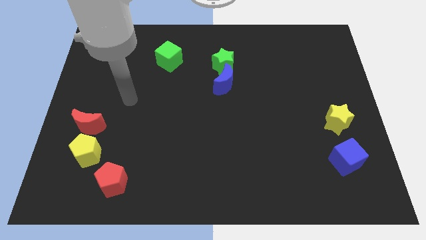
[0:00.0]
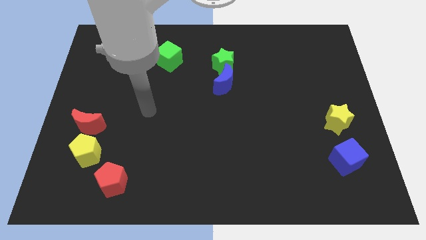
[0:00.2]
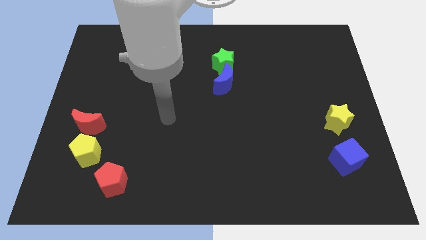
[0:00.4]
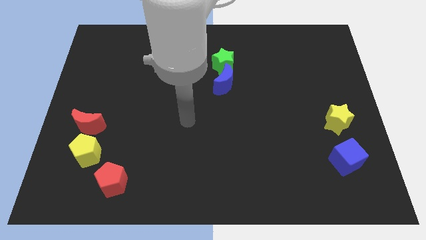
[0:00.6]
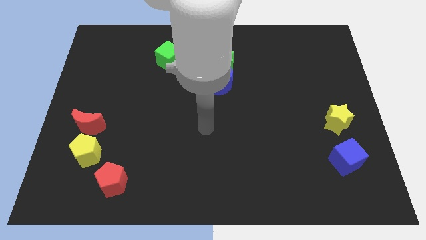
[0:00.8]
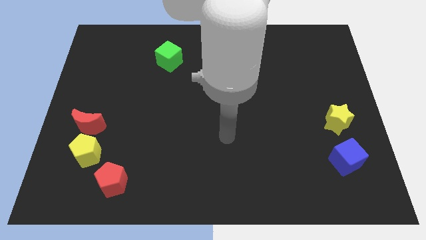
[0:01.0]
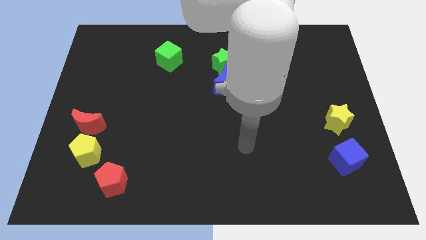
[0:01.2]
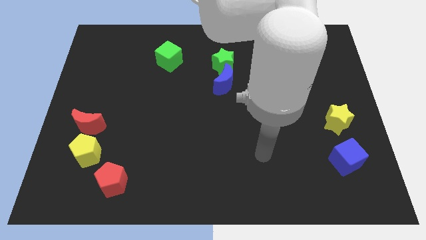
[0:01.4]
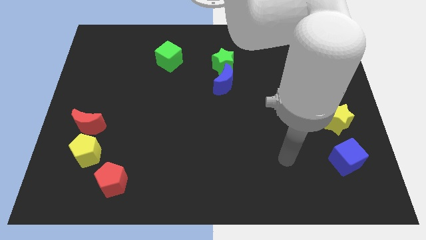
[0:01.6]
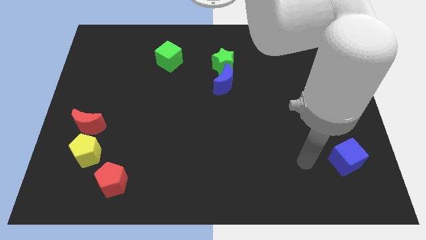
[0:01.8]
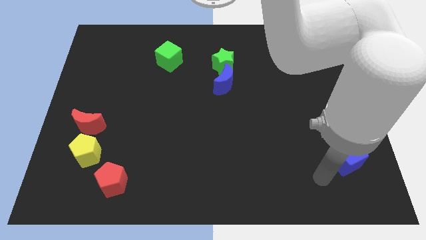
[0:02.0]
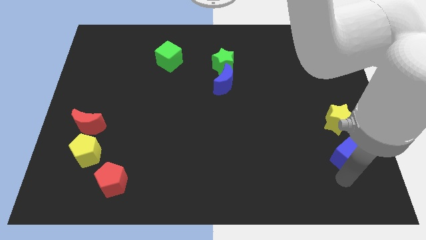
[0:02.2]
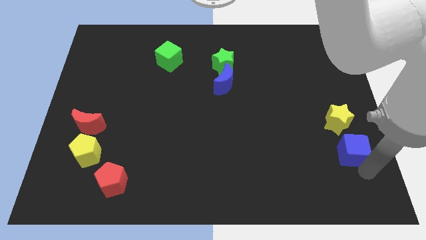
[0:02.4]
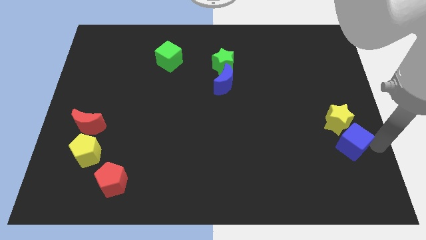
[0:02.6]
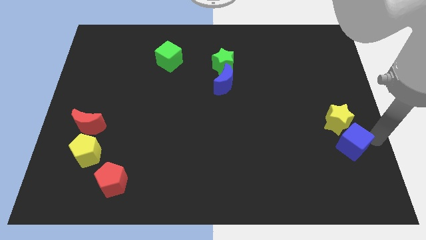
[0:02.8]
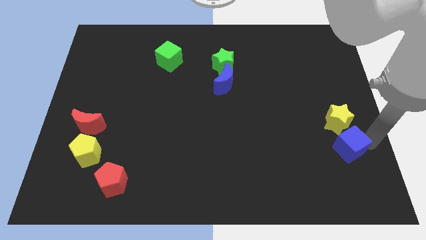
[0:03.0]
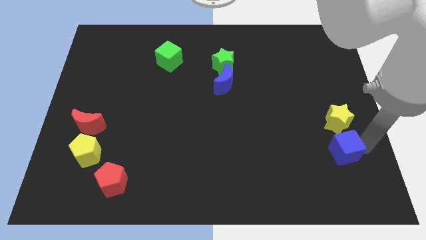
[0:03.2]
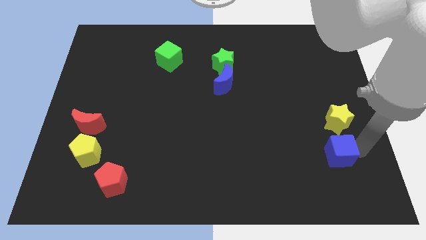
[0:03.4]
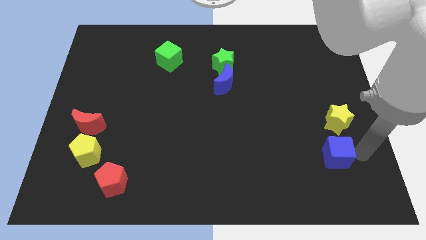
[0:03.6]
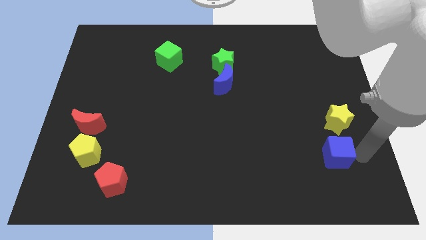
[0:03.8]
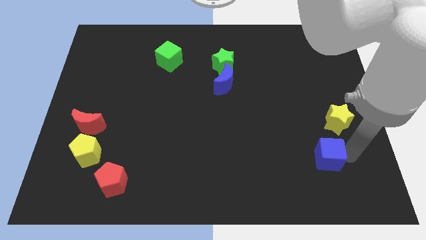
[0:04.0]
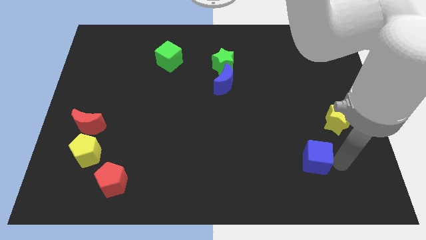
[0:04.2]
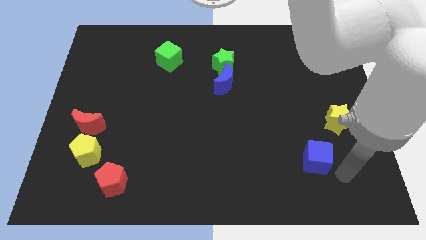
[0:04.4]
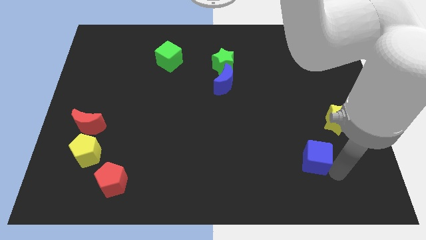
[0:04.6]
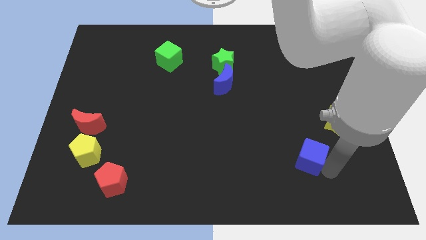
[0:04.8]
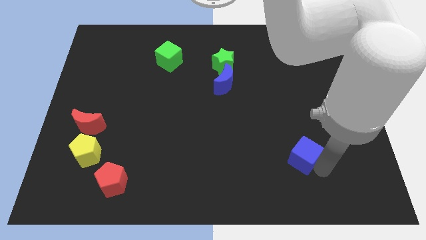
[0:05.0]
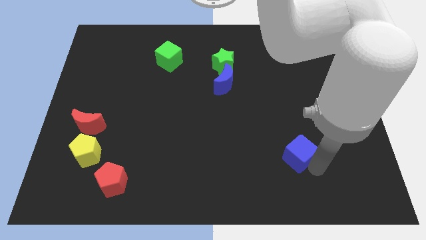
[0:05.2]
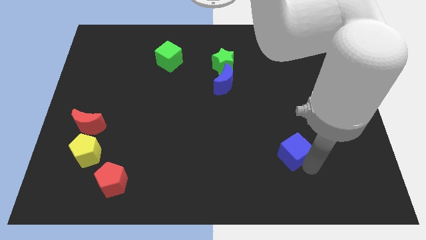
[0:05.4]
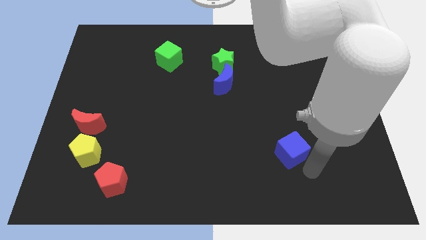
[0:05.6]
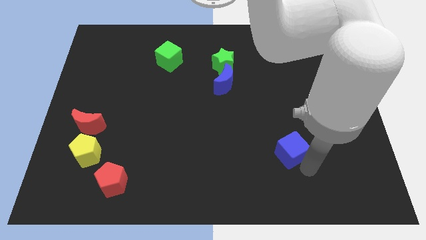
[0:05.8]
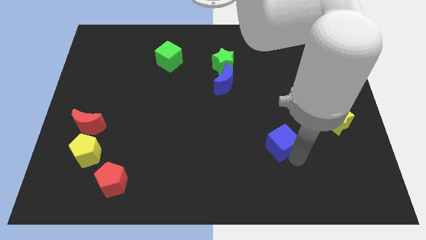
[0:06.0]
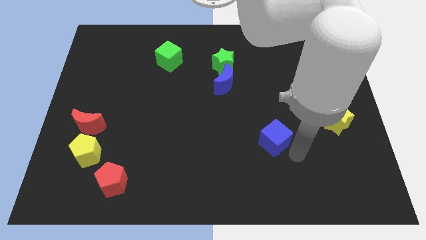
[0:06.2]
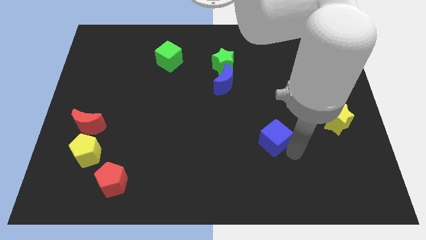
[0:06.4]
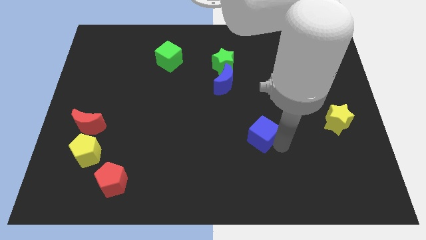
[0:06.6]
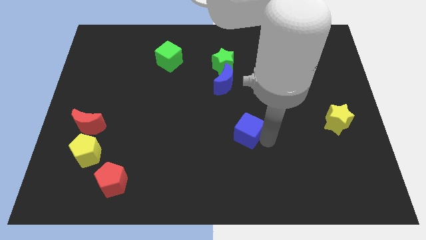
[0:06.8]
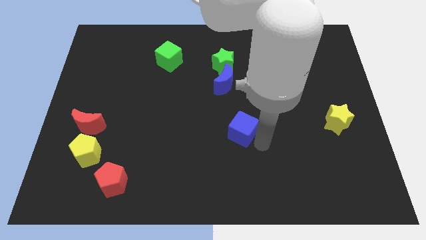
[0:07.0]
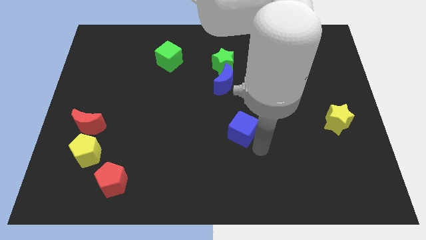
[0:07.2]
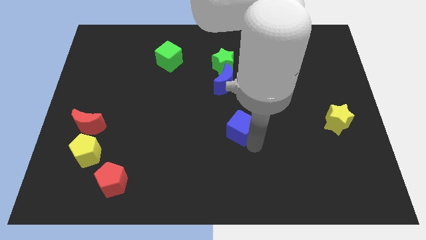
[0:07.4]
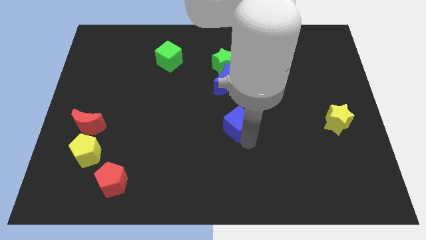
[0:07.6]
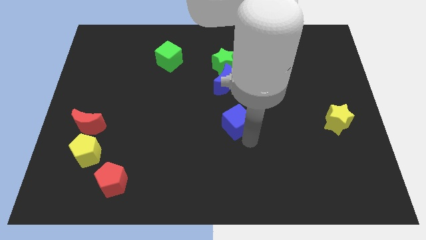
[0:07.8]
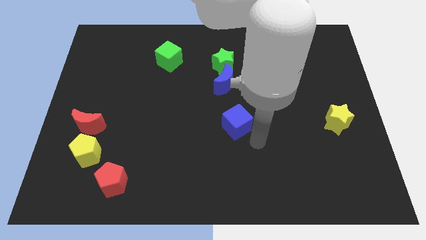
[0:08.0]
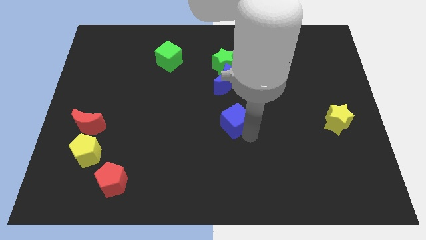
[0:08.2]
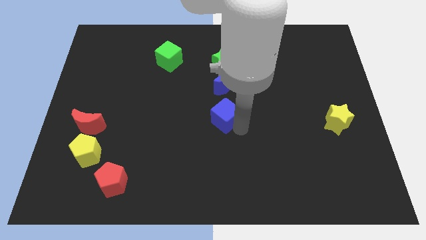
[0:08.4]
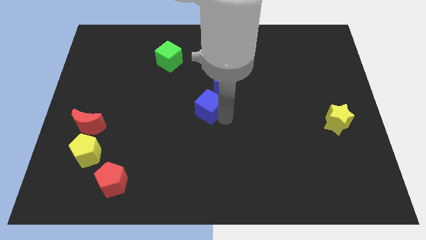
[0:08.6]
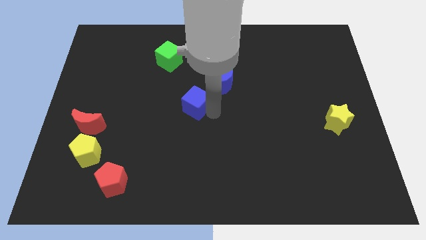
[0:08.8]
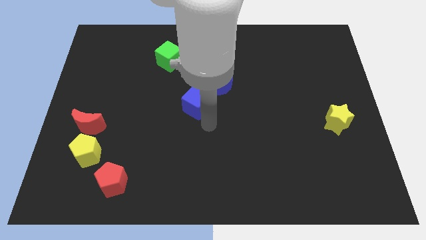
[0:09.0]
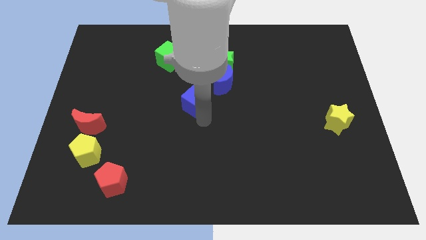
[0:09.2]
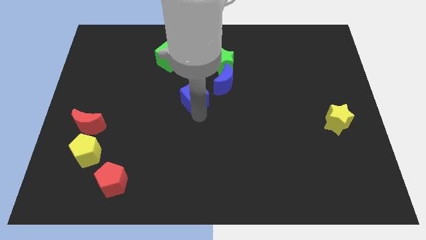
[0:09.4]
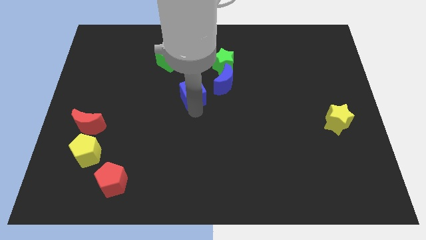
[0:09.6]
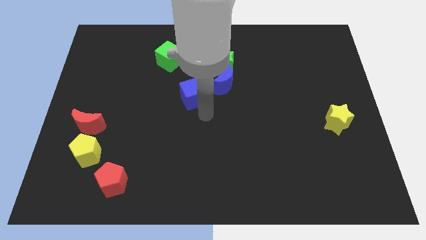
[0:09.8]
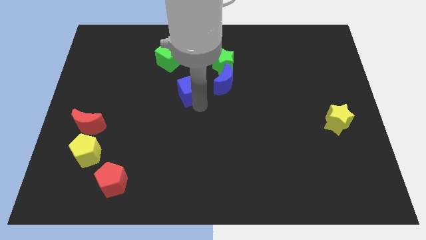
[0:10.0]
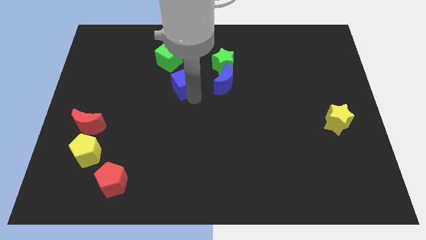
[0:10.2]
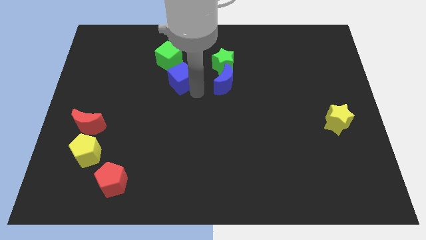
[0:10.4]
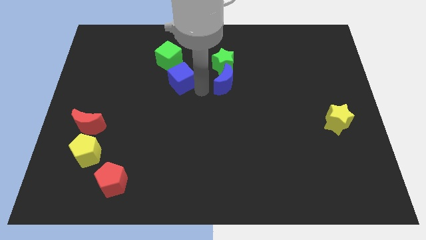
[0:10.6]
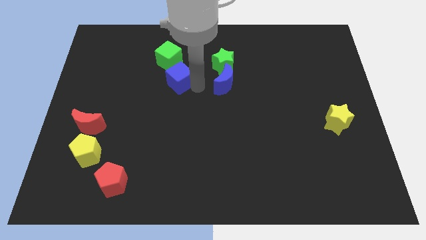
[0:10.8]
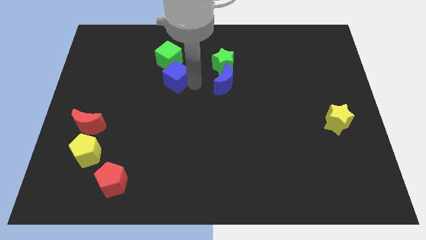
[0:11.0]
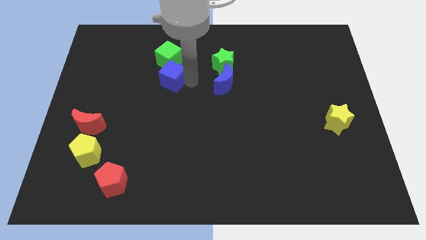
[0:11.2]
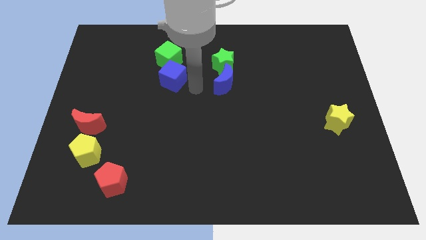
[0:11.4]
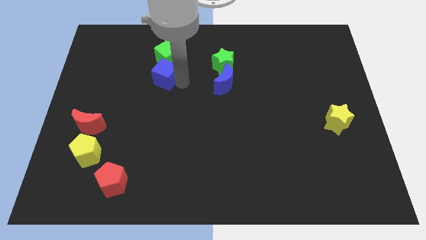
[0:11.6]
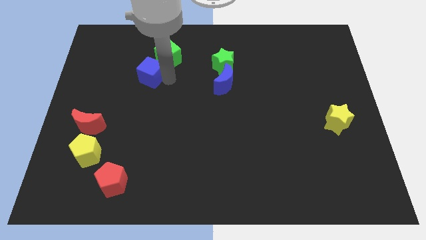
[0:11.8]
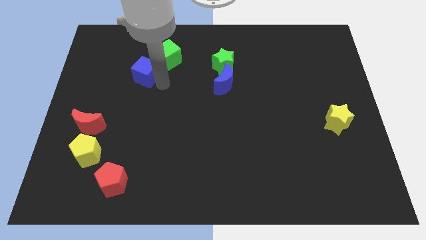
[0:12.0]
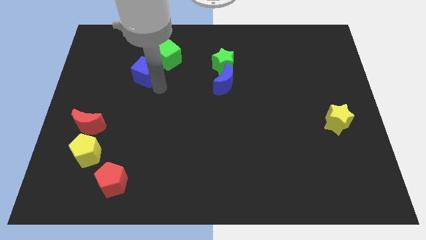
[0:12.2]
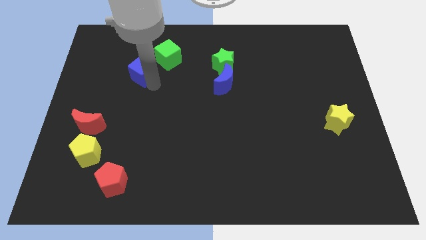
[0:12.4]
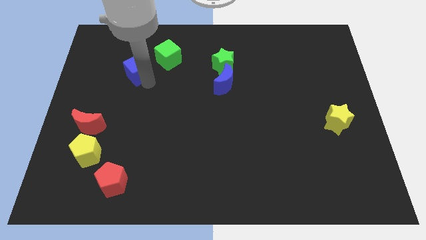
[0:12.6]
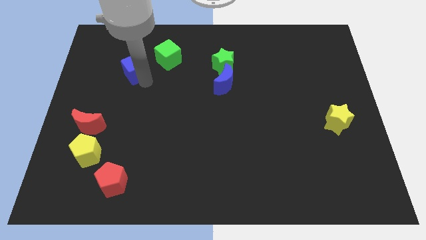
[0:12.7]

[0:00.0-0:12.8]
push the blue cube left of the green cube
